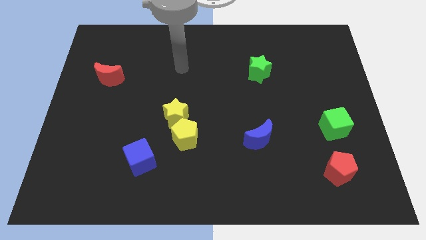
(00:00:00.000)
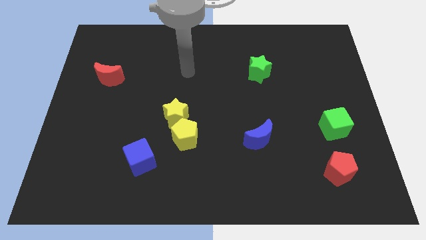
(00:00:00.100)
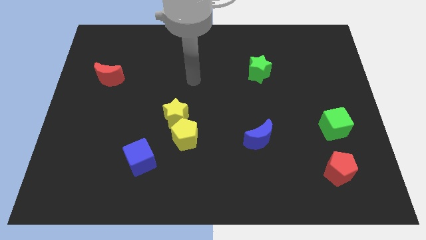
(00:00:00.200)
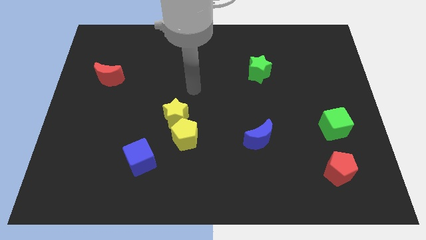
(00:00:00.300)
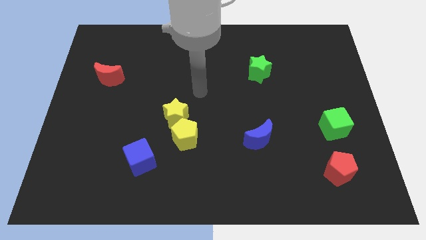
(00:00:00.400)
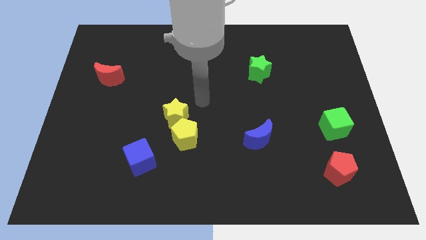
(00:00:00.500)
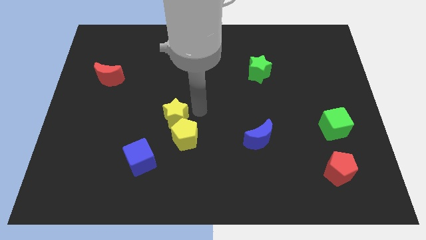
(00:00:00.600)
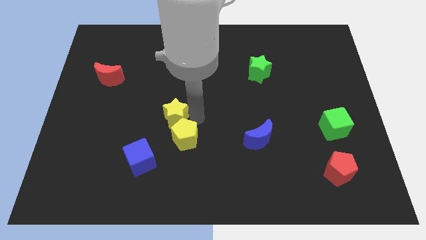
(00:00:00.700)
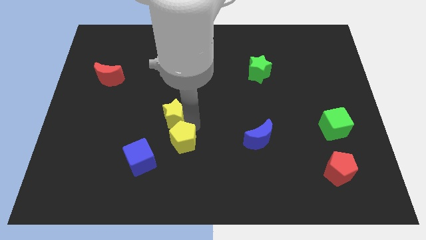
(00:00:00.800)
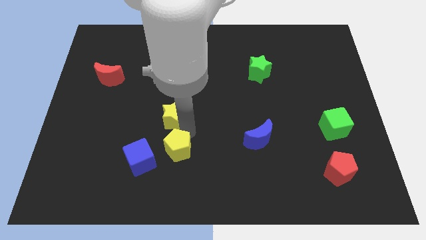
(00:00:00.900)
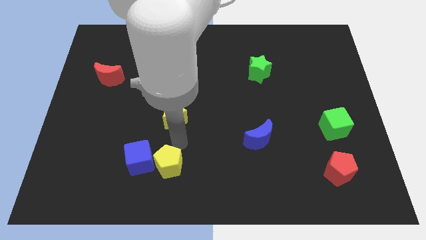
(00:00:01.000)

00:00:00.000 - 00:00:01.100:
separate the yellow star from the yellow pentagon

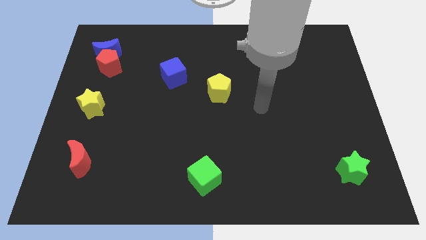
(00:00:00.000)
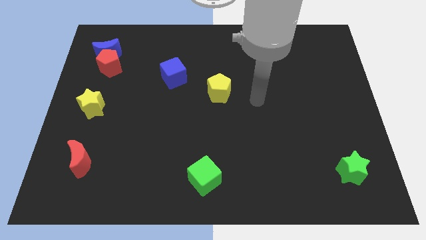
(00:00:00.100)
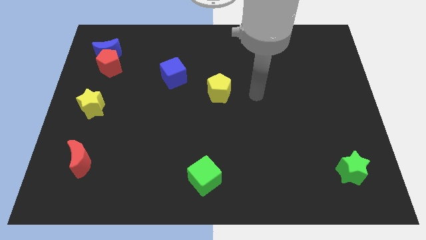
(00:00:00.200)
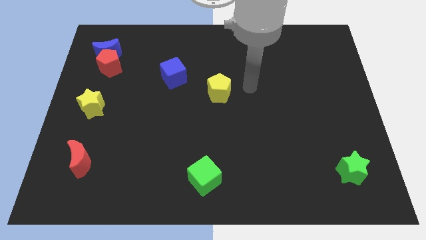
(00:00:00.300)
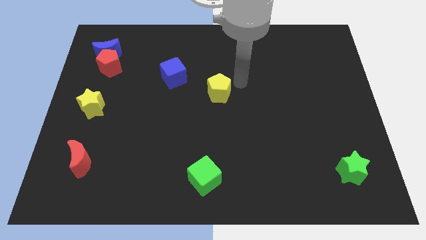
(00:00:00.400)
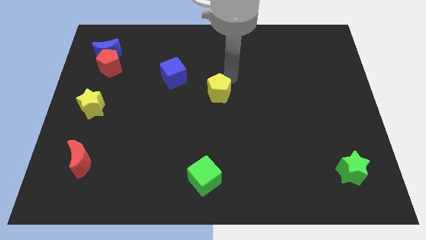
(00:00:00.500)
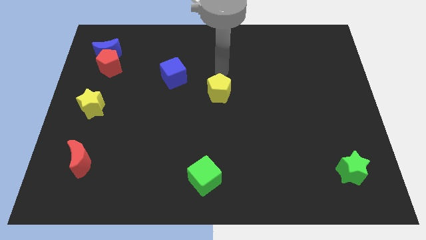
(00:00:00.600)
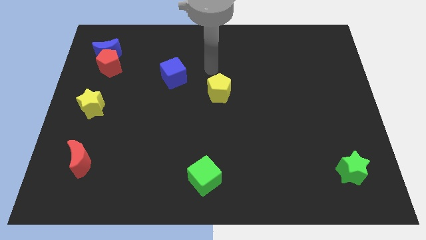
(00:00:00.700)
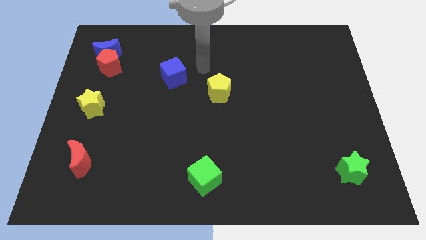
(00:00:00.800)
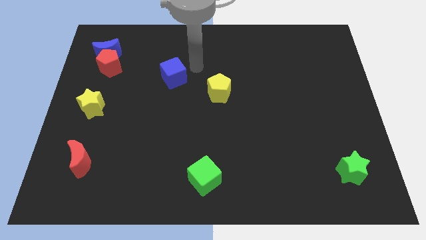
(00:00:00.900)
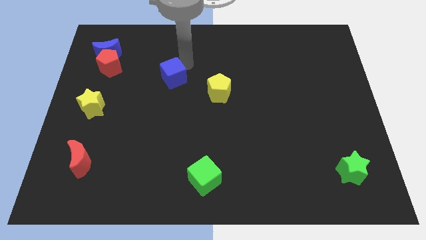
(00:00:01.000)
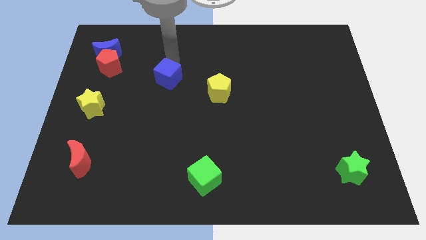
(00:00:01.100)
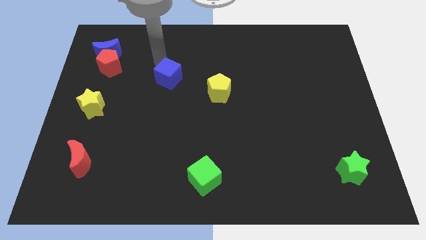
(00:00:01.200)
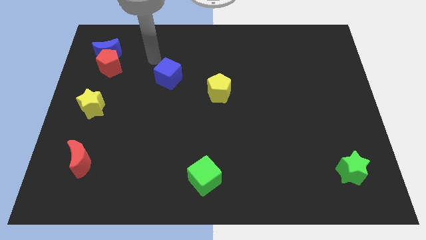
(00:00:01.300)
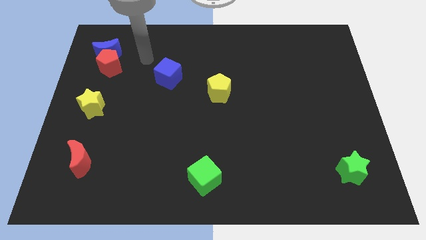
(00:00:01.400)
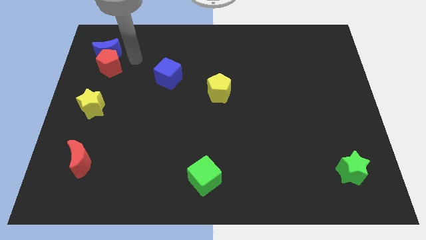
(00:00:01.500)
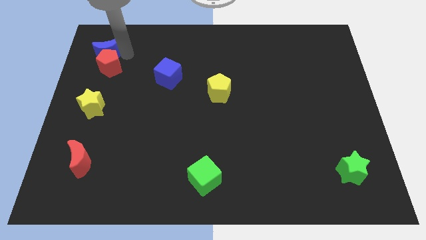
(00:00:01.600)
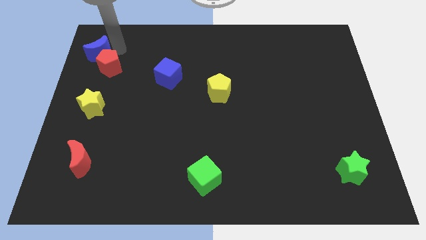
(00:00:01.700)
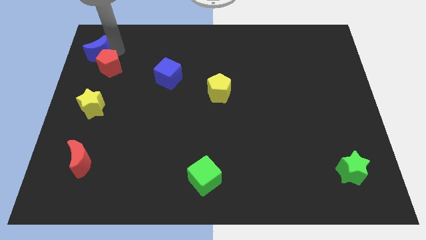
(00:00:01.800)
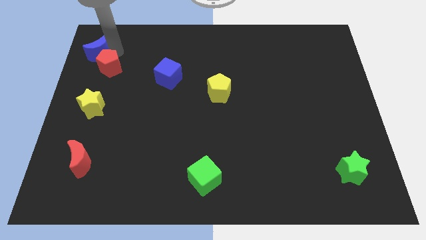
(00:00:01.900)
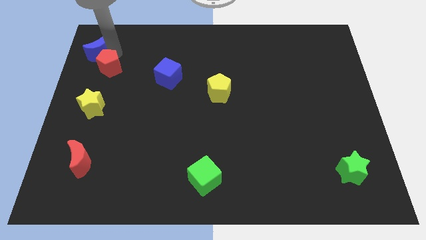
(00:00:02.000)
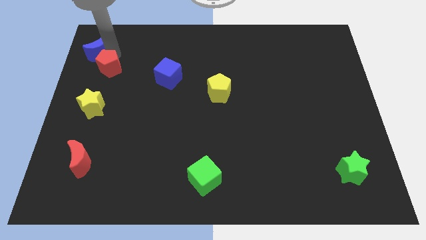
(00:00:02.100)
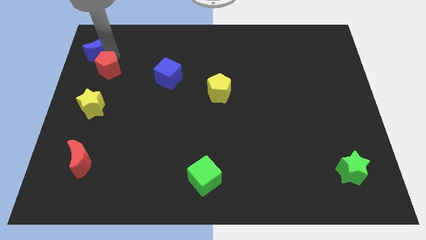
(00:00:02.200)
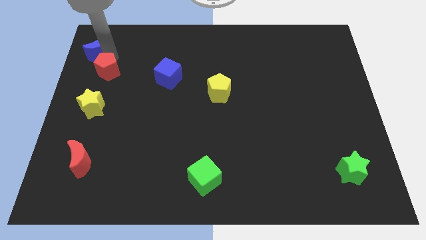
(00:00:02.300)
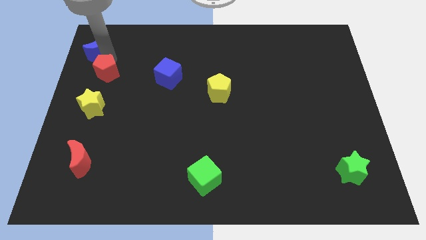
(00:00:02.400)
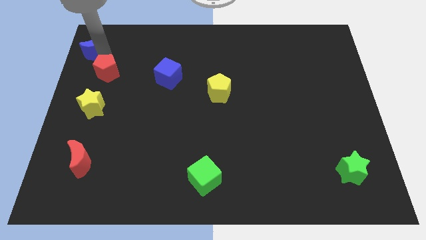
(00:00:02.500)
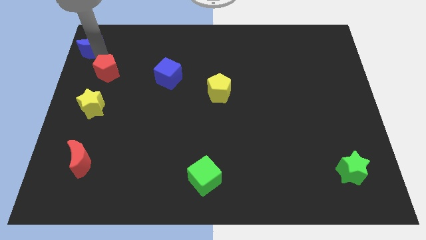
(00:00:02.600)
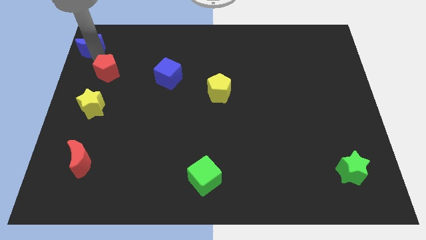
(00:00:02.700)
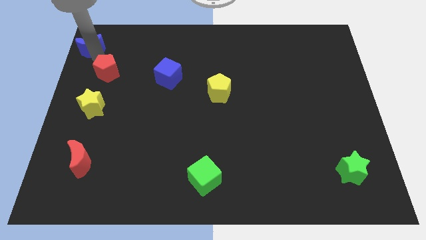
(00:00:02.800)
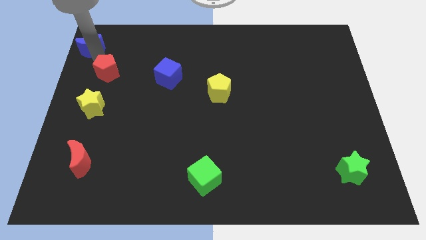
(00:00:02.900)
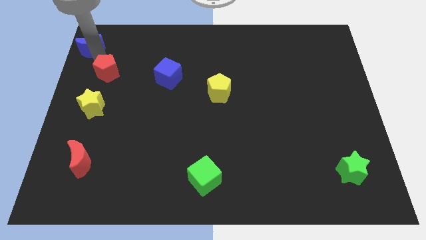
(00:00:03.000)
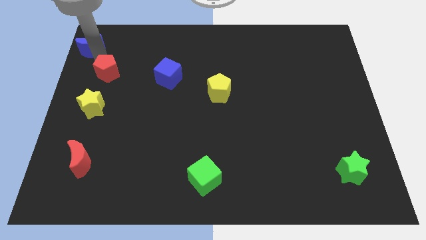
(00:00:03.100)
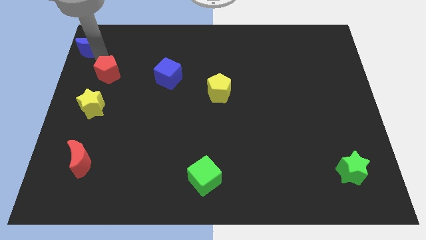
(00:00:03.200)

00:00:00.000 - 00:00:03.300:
separate the red pentagon from the blue moon

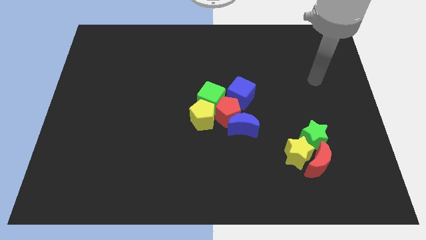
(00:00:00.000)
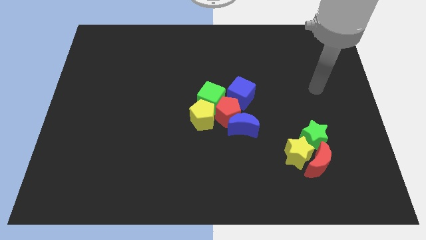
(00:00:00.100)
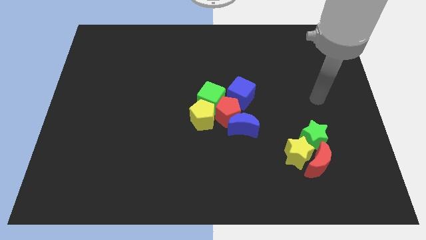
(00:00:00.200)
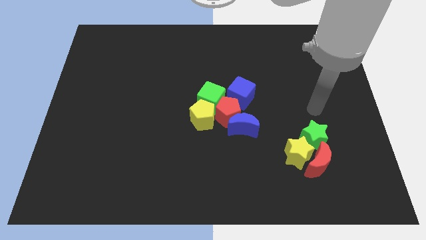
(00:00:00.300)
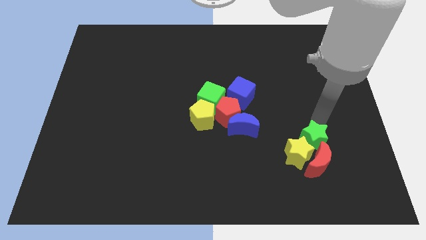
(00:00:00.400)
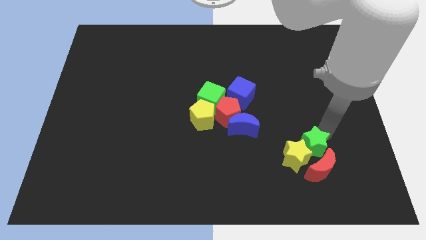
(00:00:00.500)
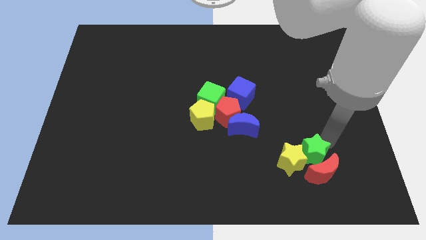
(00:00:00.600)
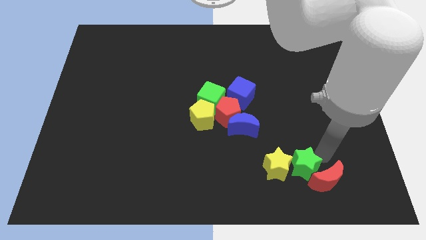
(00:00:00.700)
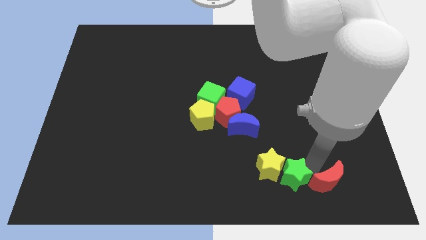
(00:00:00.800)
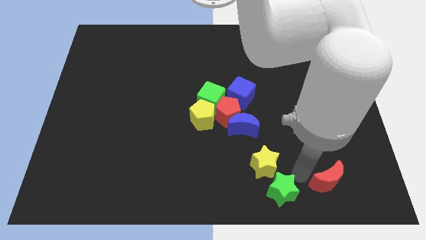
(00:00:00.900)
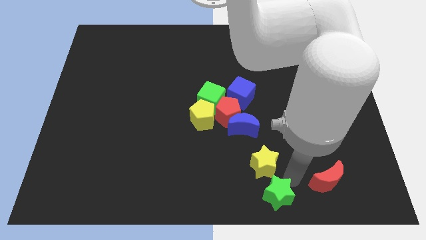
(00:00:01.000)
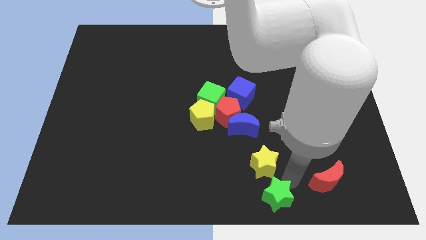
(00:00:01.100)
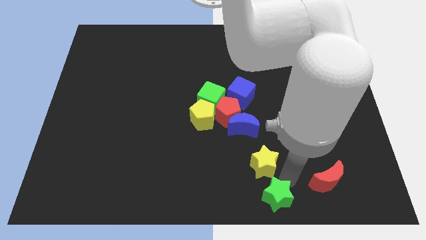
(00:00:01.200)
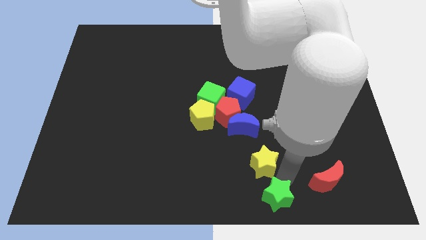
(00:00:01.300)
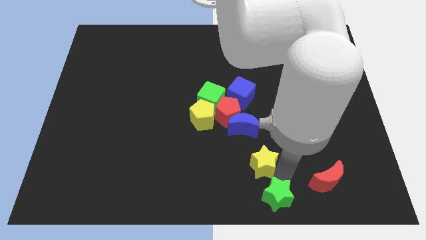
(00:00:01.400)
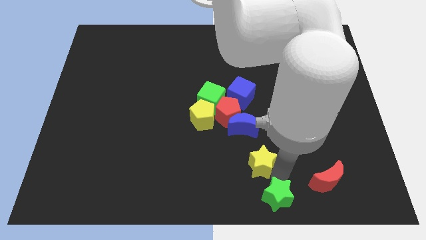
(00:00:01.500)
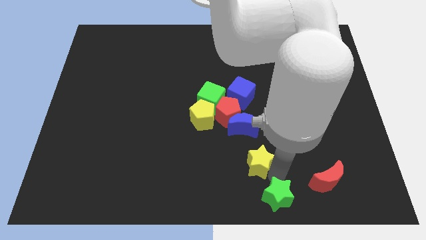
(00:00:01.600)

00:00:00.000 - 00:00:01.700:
separate the yellow star from the red moon and green star

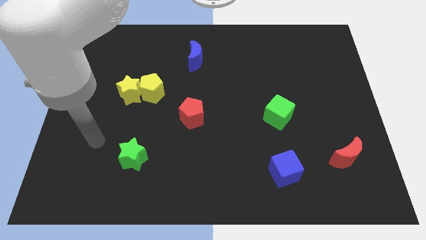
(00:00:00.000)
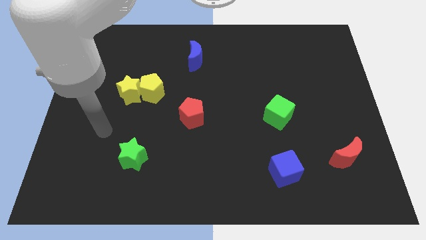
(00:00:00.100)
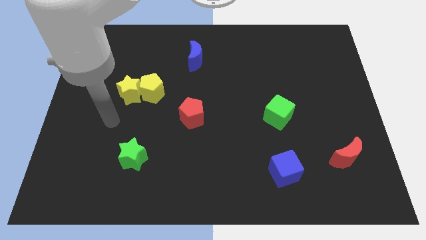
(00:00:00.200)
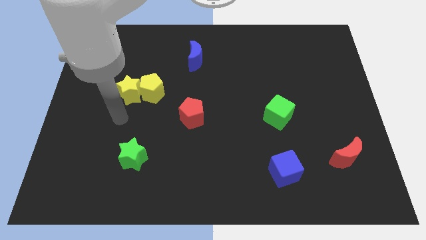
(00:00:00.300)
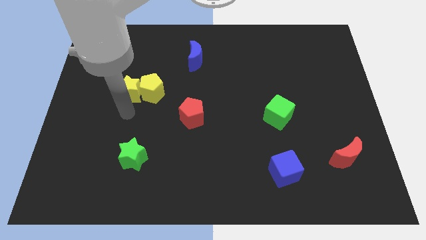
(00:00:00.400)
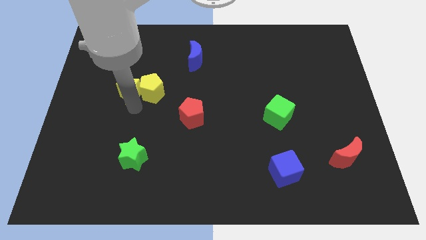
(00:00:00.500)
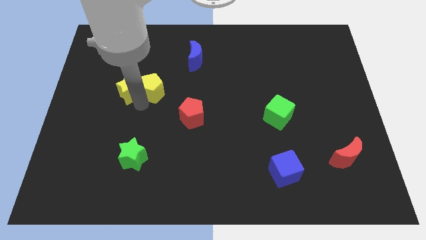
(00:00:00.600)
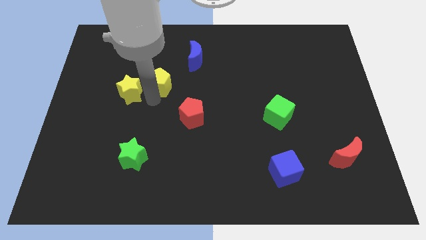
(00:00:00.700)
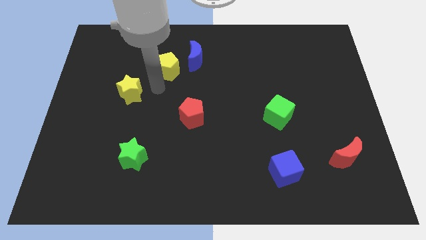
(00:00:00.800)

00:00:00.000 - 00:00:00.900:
move the yellow star away from the yellow pentagon

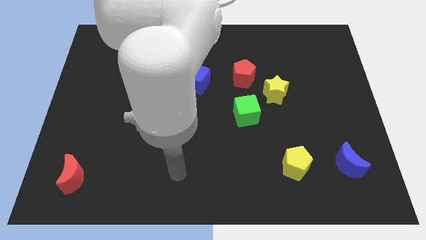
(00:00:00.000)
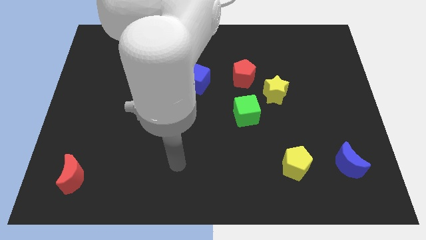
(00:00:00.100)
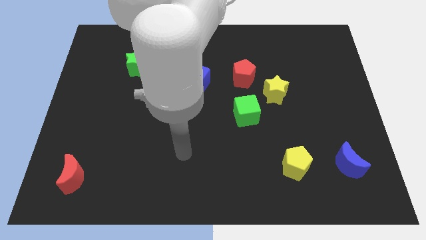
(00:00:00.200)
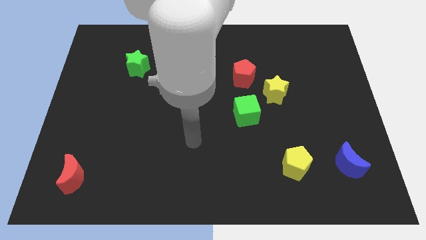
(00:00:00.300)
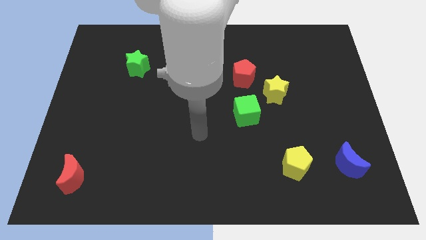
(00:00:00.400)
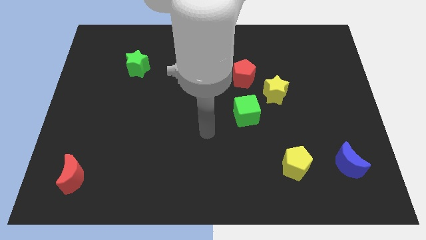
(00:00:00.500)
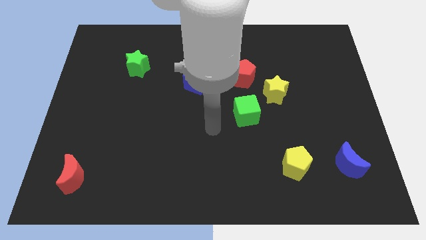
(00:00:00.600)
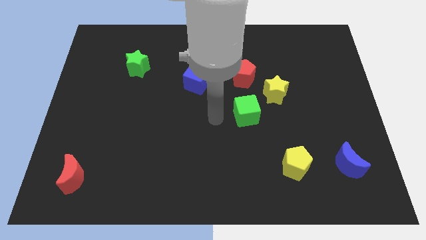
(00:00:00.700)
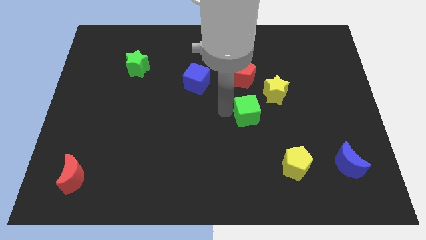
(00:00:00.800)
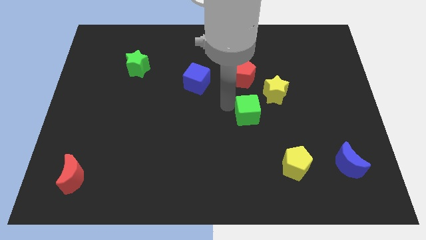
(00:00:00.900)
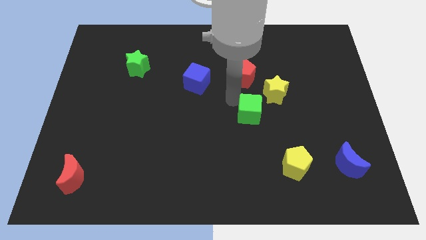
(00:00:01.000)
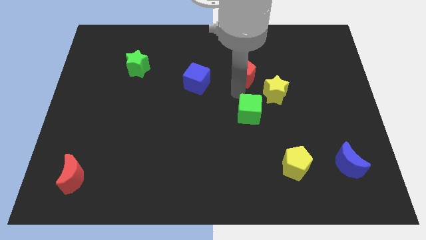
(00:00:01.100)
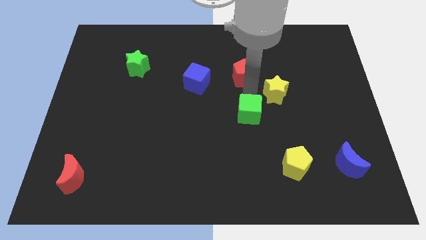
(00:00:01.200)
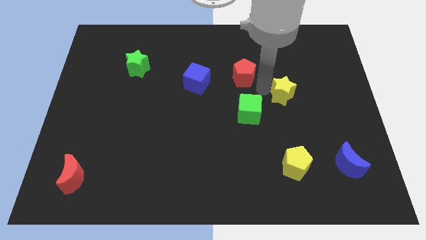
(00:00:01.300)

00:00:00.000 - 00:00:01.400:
separate the red pentagon from the yellow star

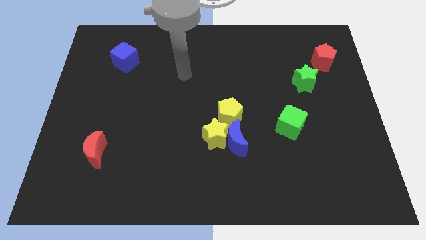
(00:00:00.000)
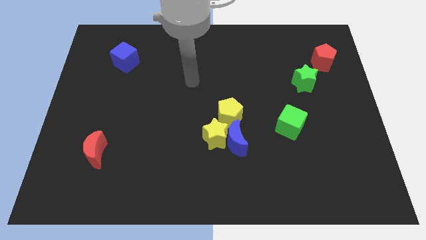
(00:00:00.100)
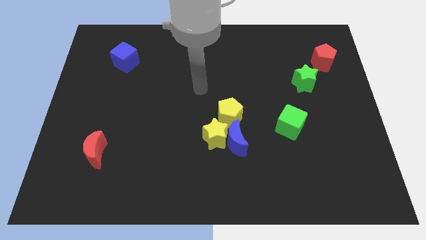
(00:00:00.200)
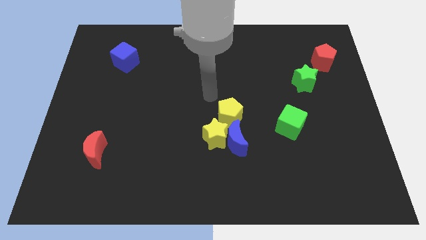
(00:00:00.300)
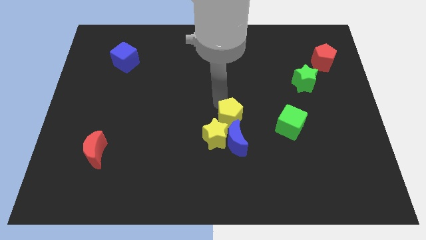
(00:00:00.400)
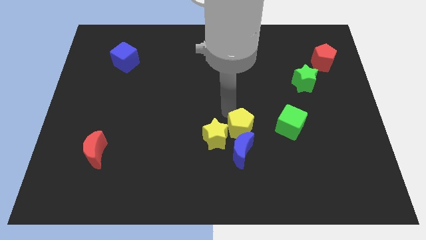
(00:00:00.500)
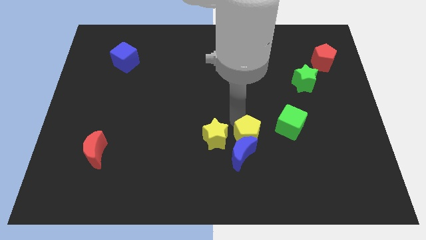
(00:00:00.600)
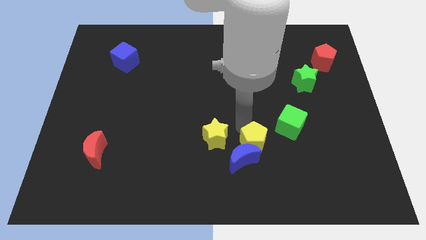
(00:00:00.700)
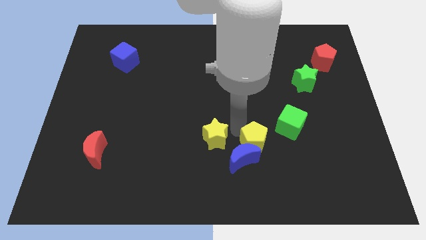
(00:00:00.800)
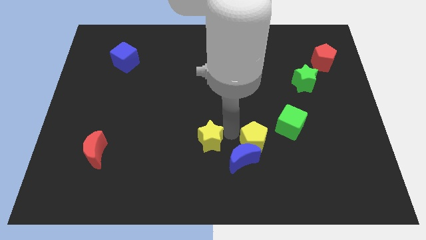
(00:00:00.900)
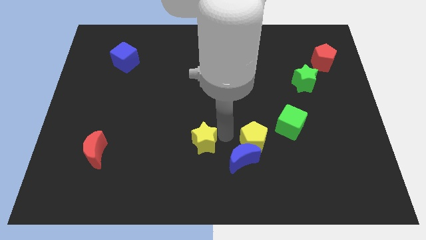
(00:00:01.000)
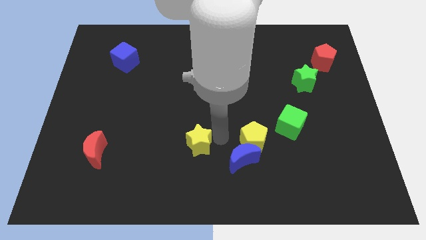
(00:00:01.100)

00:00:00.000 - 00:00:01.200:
separate the yellow star from the blue moon and yellow pentagon
